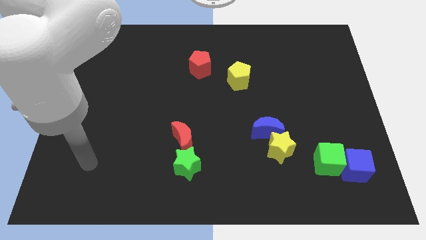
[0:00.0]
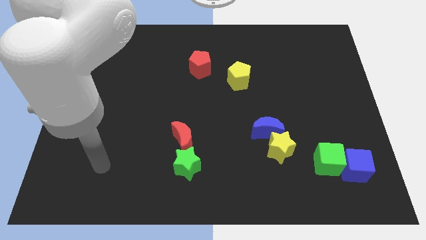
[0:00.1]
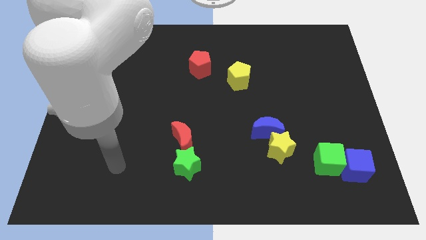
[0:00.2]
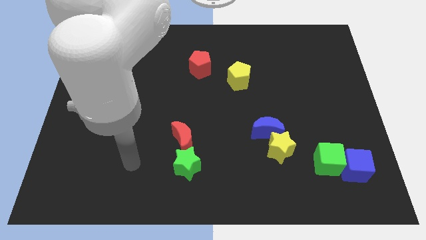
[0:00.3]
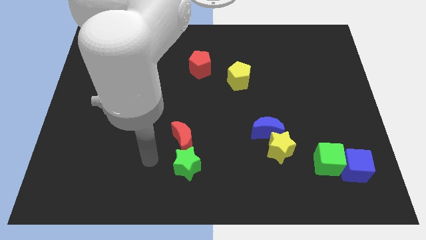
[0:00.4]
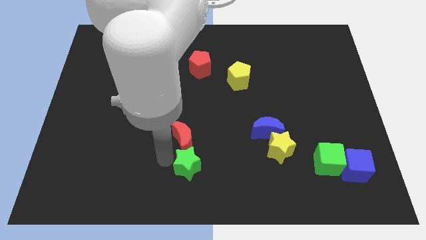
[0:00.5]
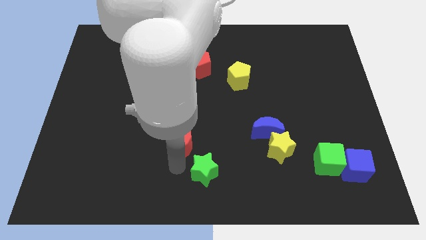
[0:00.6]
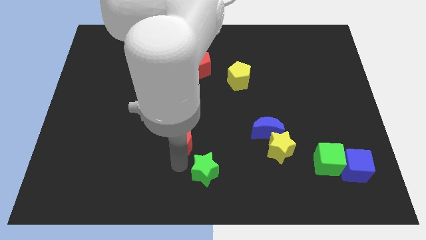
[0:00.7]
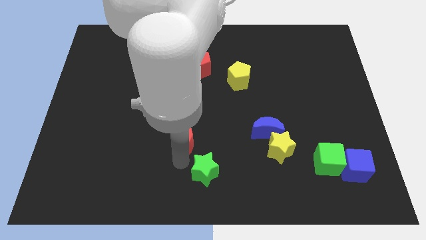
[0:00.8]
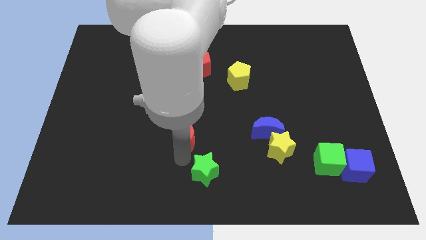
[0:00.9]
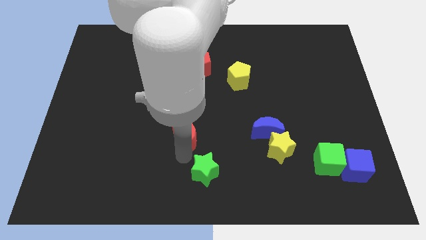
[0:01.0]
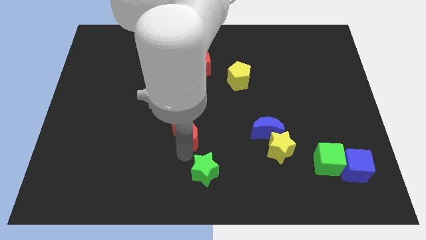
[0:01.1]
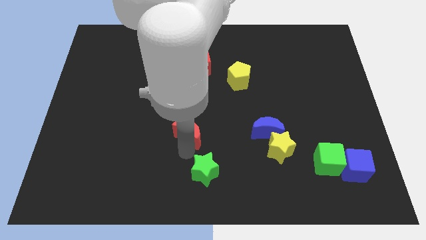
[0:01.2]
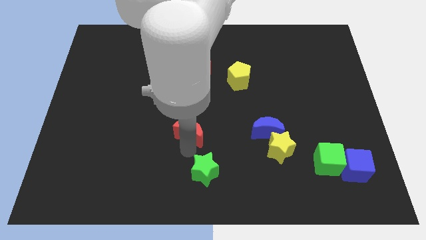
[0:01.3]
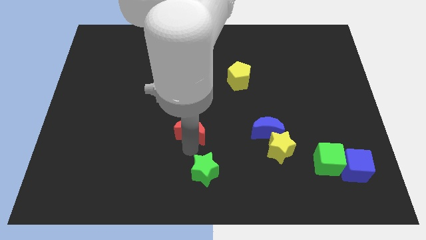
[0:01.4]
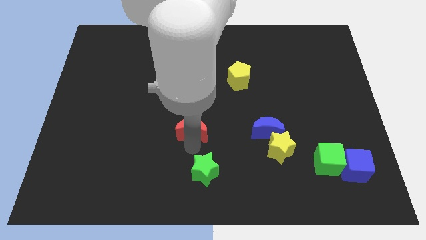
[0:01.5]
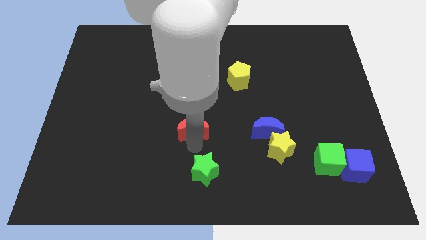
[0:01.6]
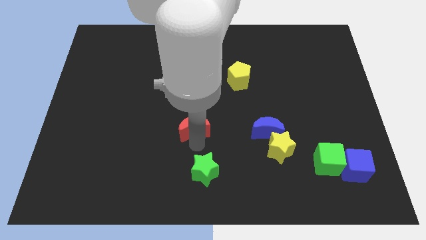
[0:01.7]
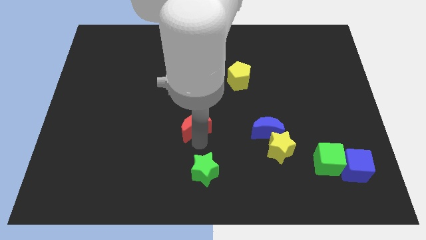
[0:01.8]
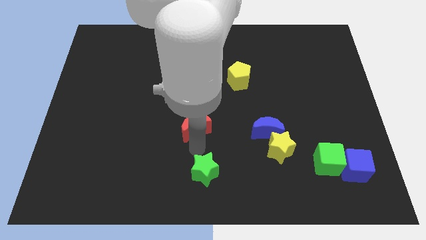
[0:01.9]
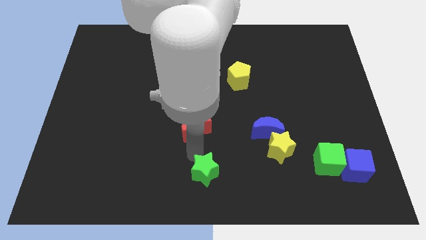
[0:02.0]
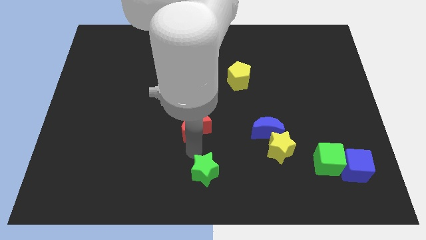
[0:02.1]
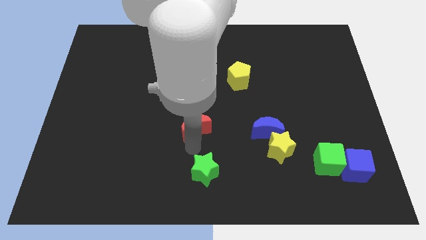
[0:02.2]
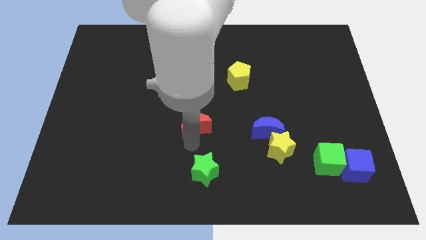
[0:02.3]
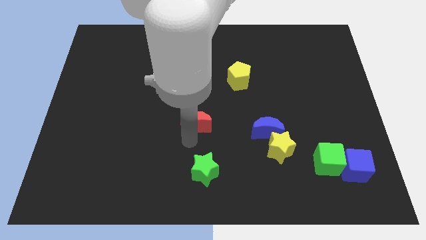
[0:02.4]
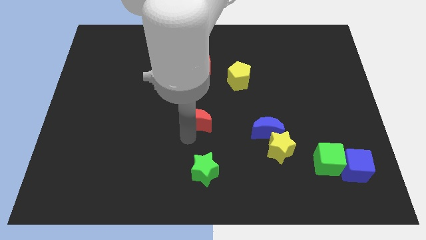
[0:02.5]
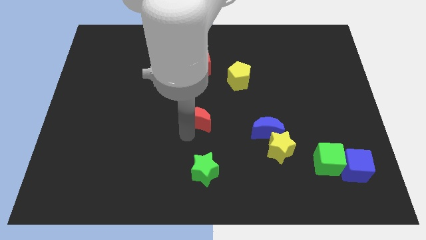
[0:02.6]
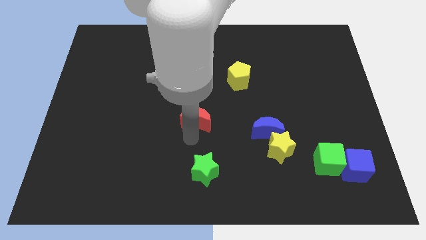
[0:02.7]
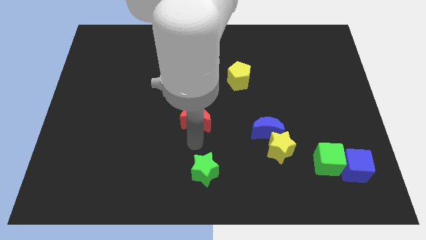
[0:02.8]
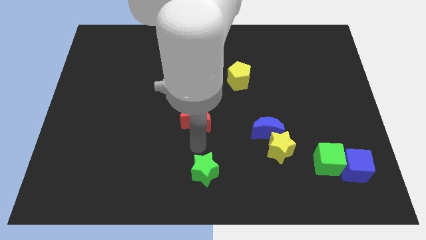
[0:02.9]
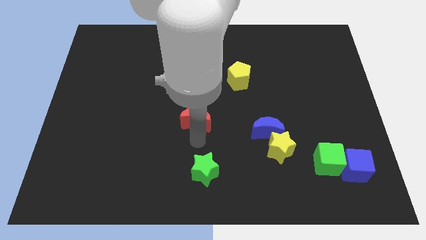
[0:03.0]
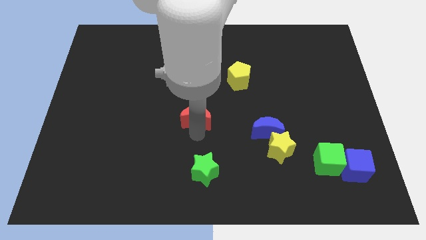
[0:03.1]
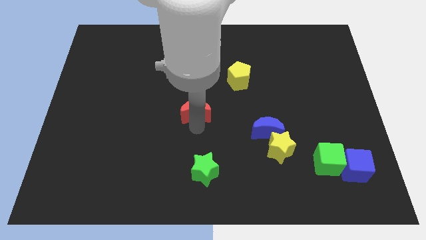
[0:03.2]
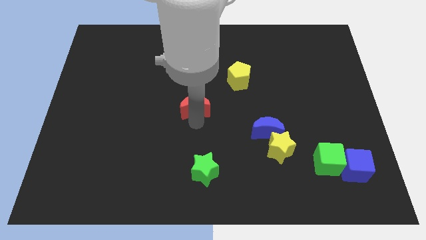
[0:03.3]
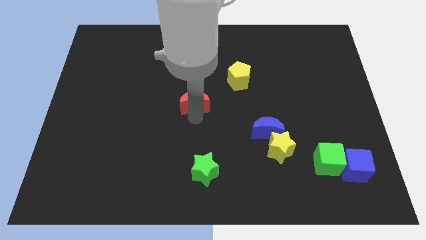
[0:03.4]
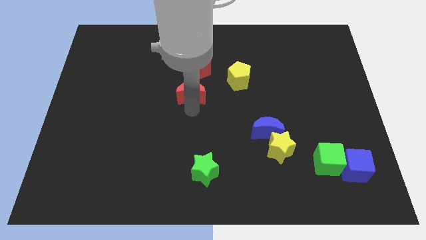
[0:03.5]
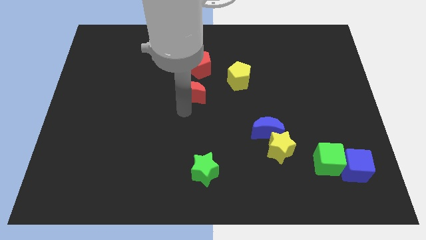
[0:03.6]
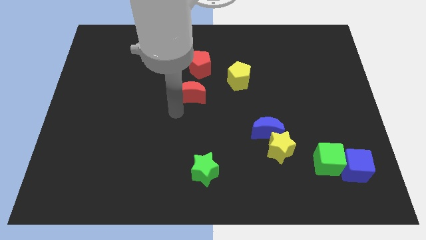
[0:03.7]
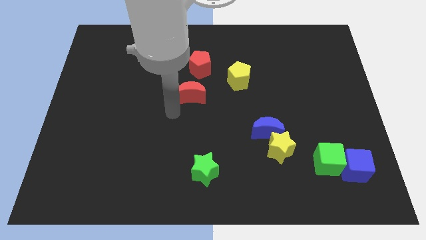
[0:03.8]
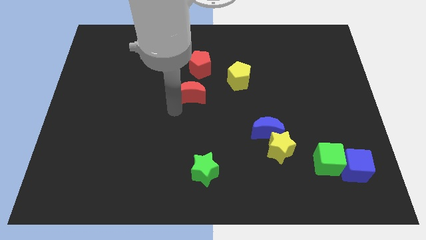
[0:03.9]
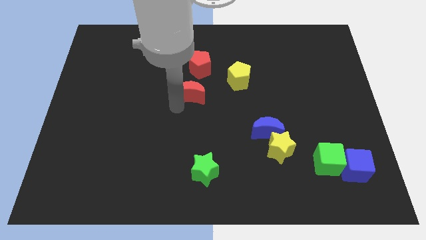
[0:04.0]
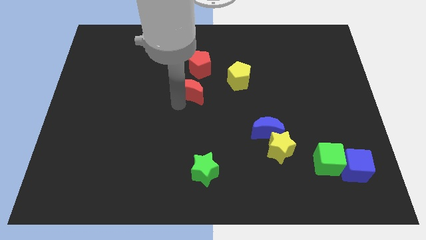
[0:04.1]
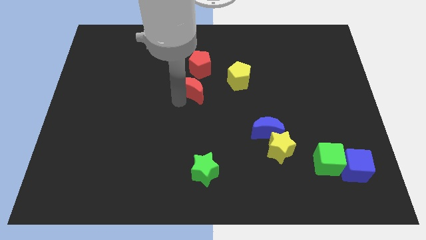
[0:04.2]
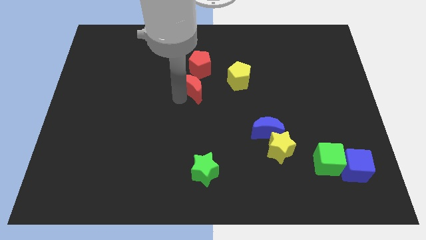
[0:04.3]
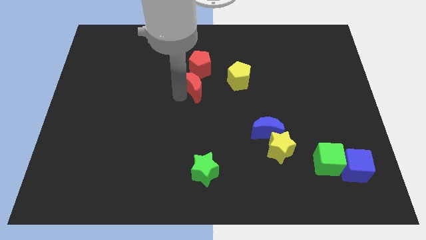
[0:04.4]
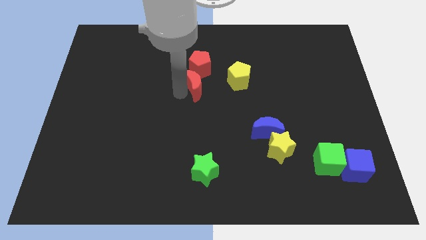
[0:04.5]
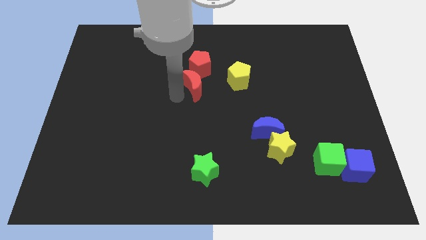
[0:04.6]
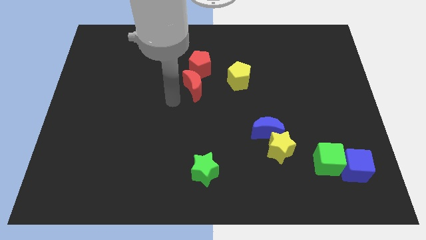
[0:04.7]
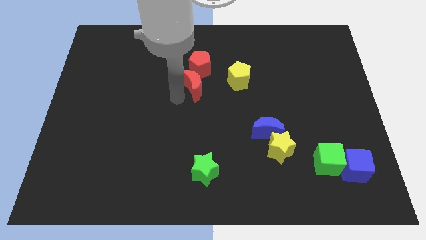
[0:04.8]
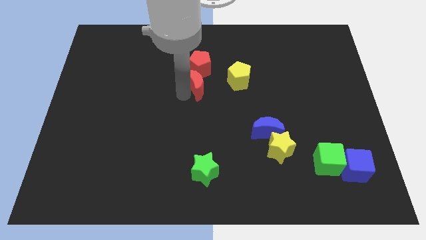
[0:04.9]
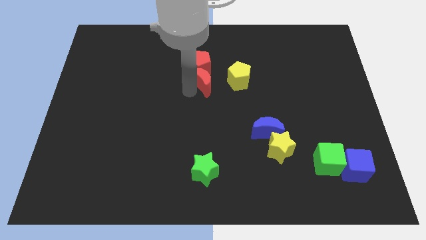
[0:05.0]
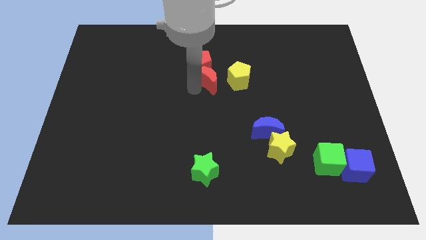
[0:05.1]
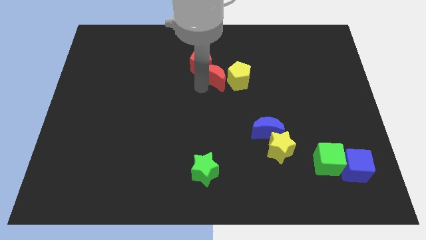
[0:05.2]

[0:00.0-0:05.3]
put the red moon diagonally up and to the left of the yellow pentagon

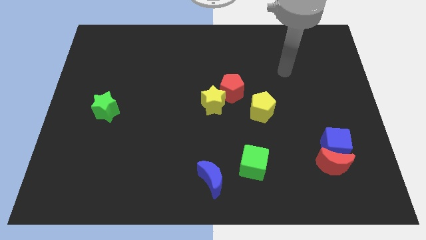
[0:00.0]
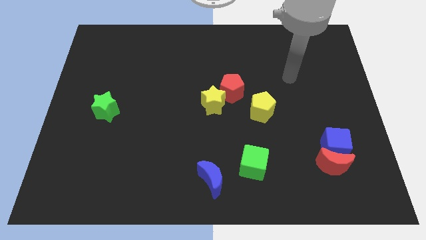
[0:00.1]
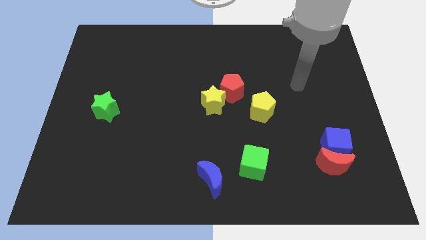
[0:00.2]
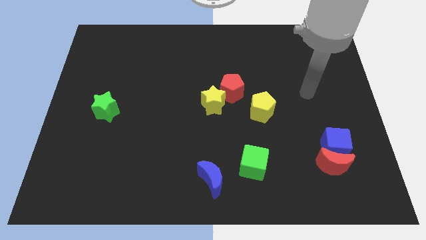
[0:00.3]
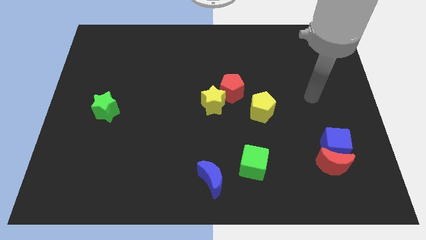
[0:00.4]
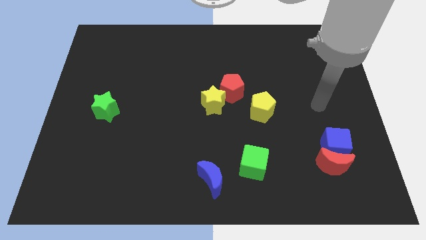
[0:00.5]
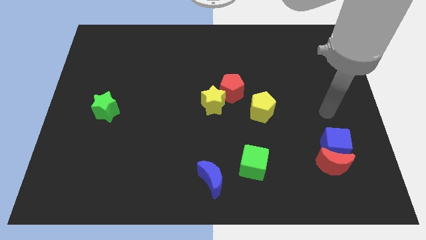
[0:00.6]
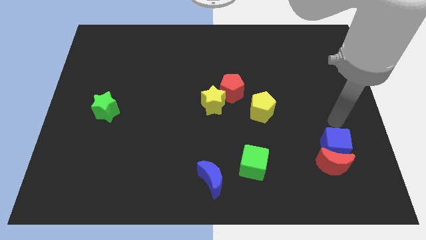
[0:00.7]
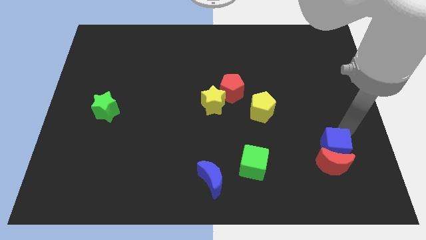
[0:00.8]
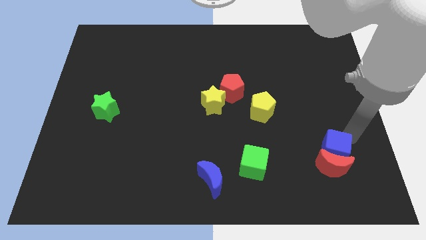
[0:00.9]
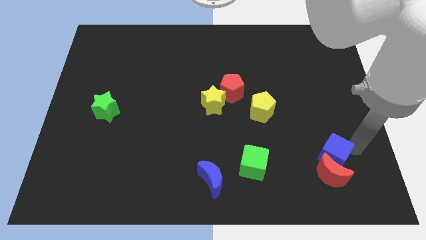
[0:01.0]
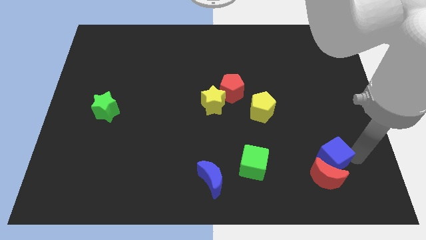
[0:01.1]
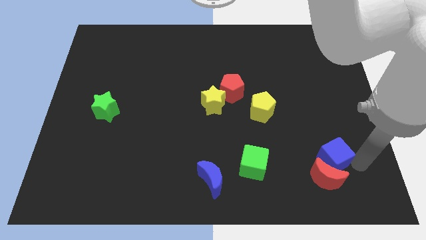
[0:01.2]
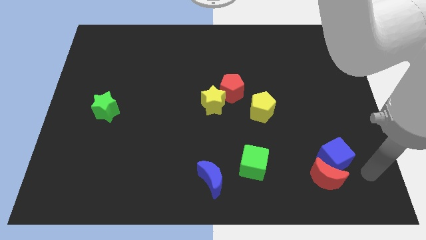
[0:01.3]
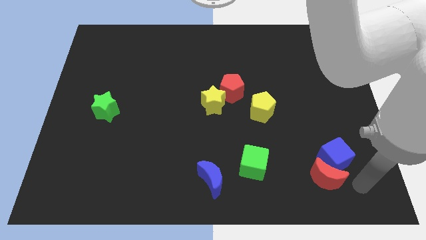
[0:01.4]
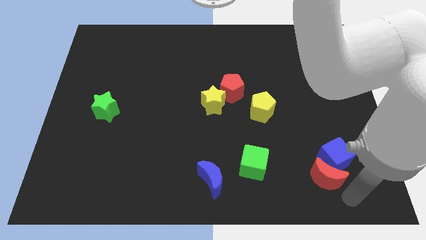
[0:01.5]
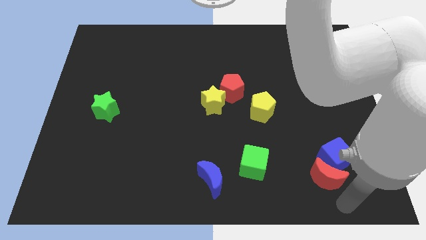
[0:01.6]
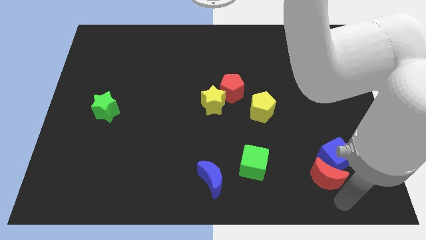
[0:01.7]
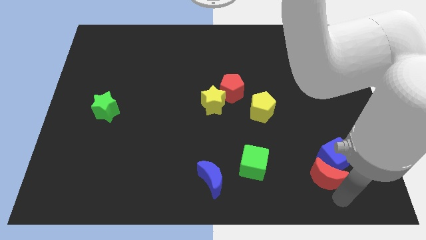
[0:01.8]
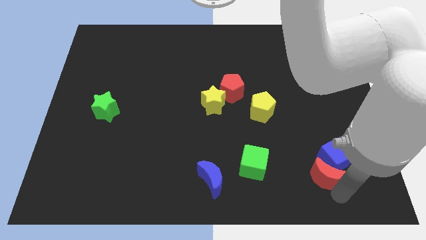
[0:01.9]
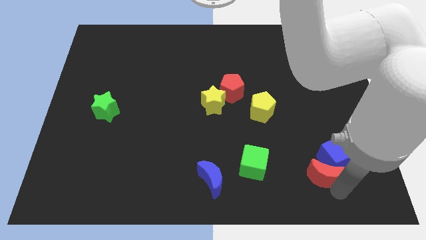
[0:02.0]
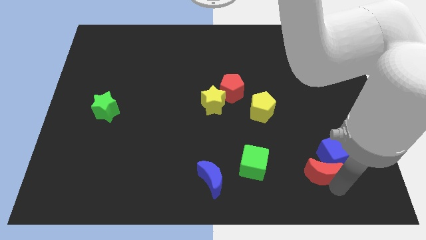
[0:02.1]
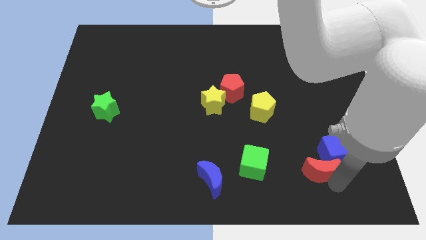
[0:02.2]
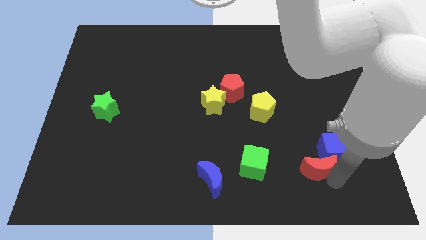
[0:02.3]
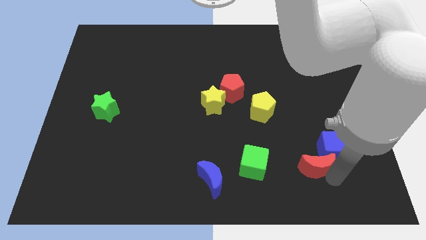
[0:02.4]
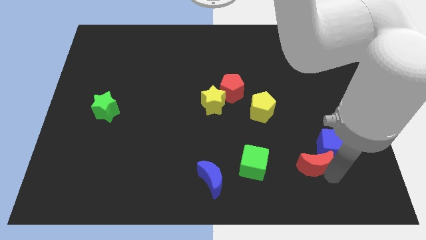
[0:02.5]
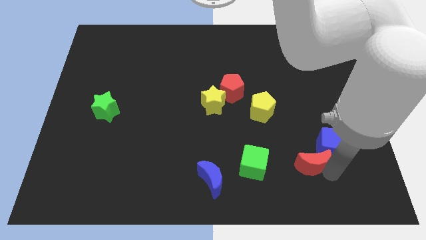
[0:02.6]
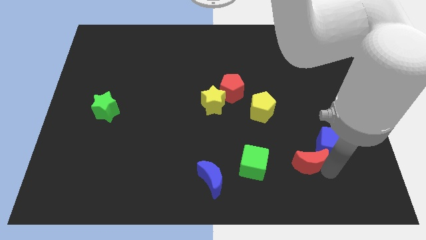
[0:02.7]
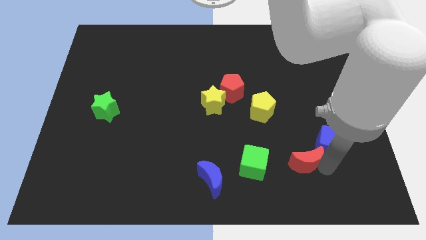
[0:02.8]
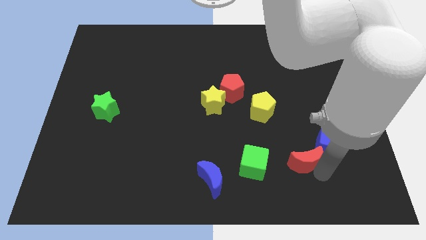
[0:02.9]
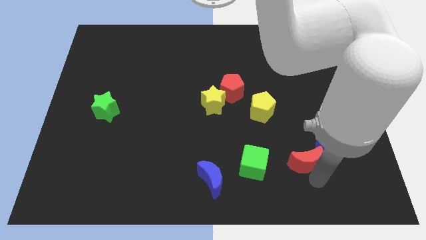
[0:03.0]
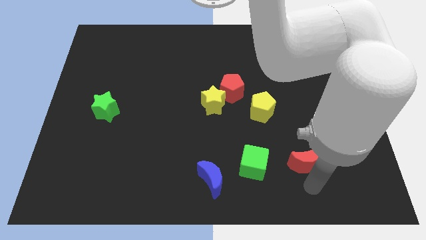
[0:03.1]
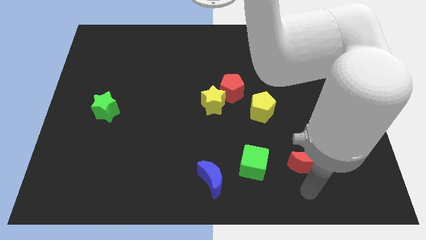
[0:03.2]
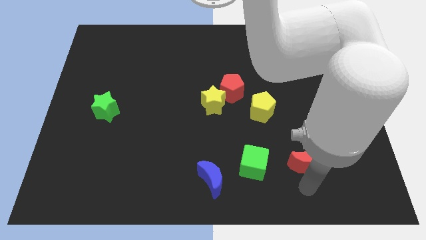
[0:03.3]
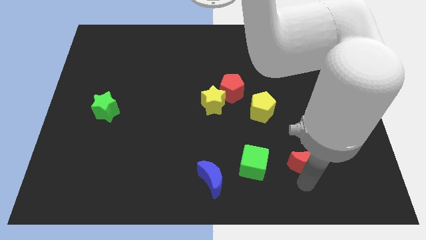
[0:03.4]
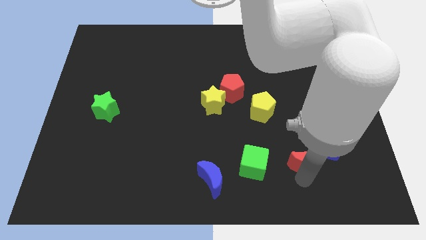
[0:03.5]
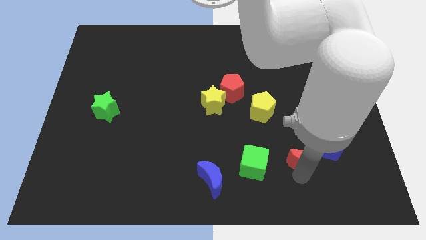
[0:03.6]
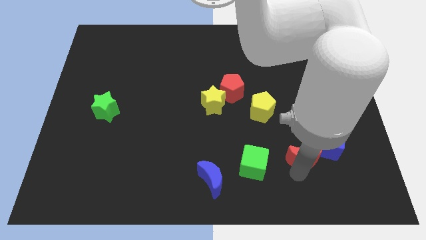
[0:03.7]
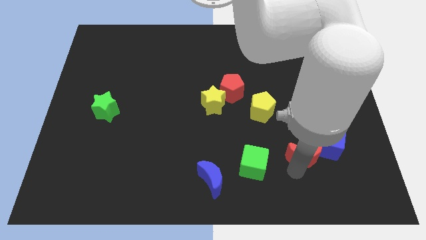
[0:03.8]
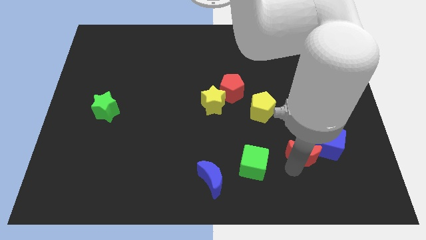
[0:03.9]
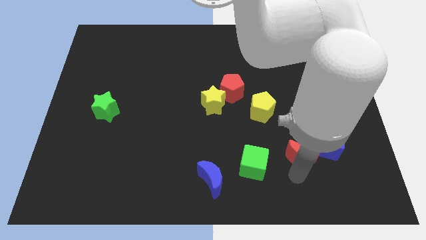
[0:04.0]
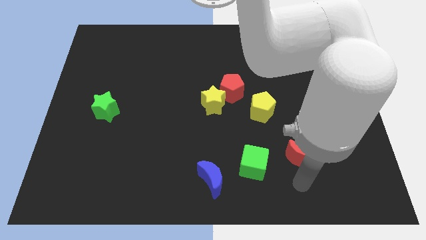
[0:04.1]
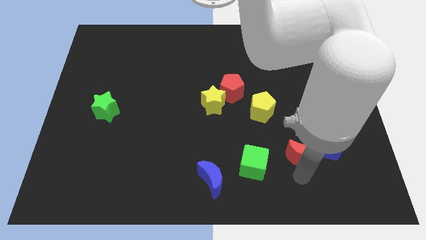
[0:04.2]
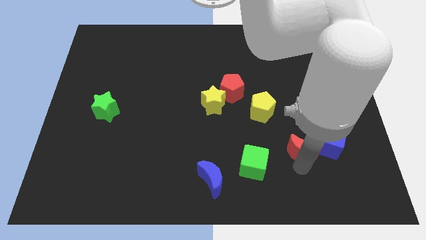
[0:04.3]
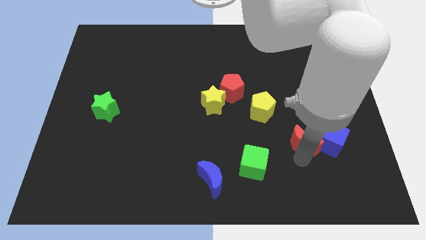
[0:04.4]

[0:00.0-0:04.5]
move the red moon diagonally up and to the left of the blue cube
